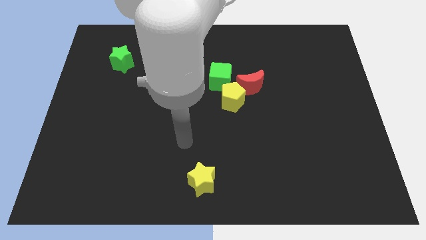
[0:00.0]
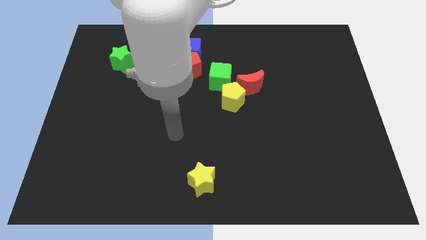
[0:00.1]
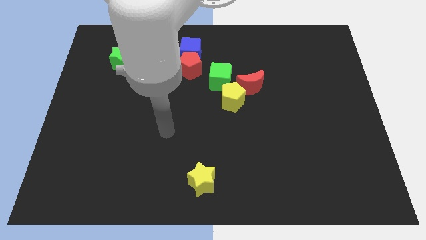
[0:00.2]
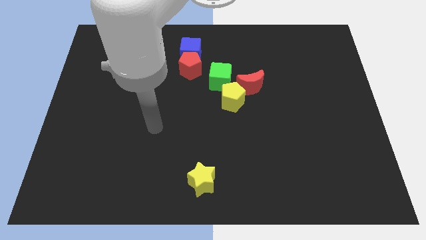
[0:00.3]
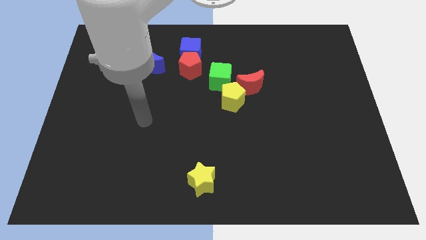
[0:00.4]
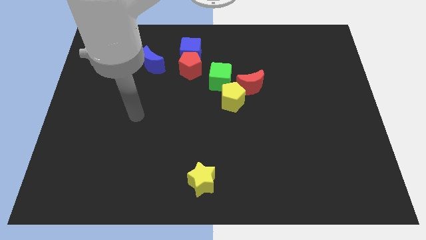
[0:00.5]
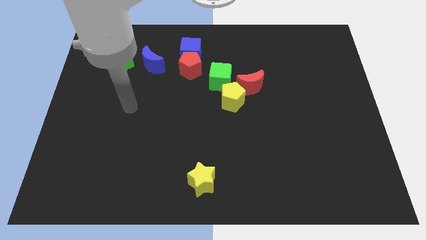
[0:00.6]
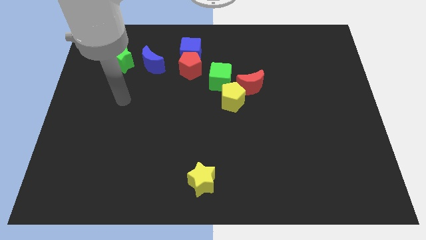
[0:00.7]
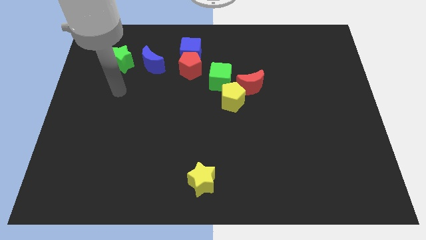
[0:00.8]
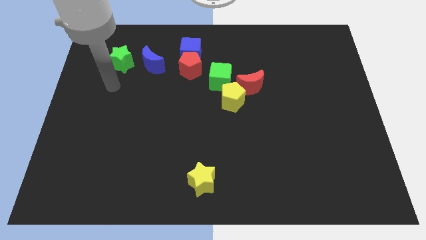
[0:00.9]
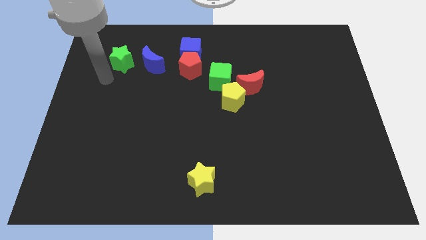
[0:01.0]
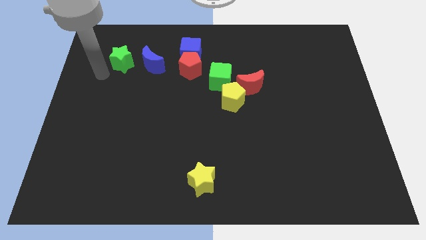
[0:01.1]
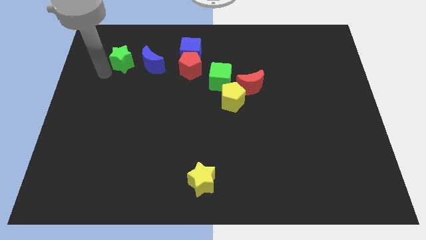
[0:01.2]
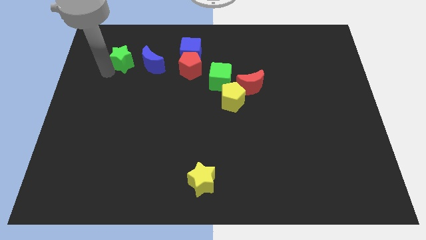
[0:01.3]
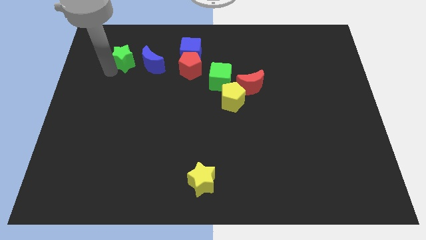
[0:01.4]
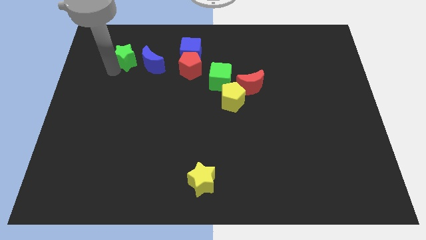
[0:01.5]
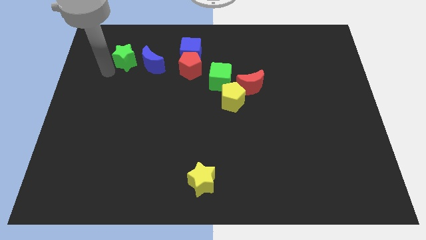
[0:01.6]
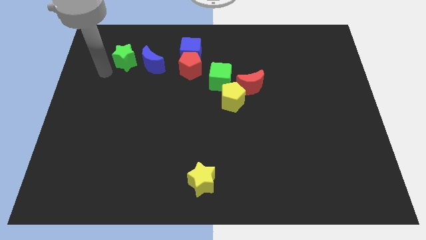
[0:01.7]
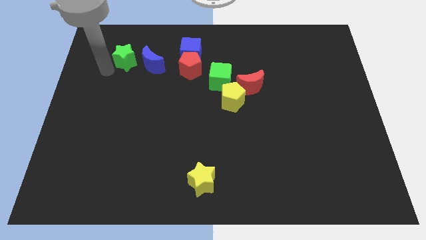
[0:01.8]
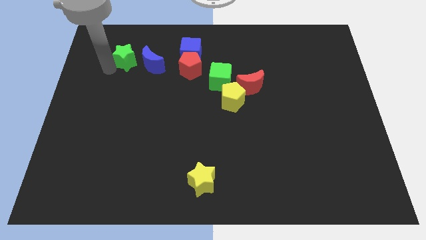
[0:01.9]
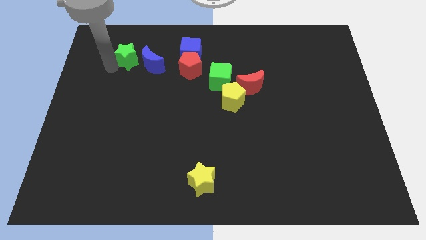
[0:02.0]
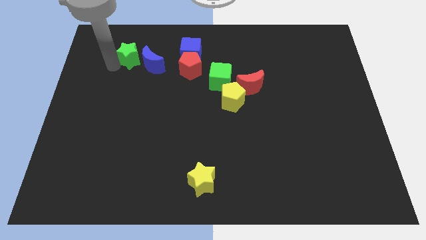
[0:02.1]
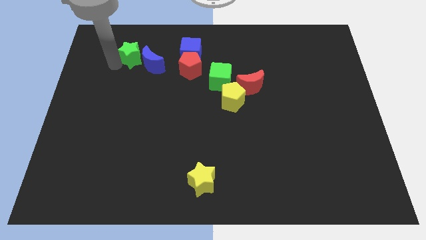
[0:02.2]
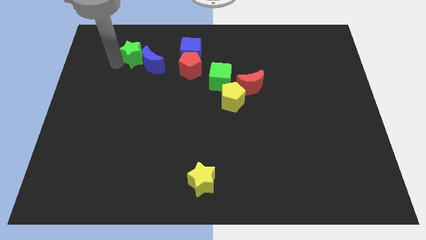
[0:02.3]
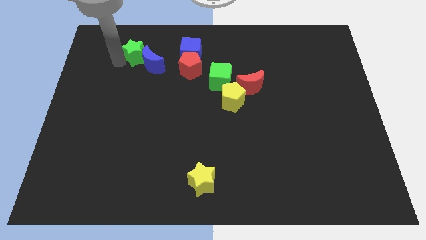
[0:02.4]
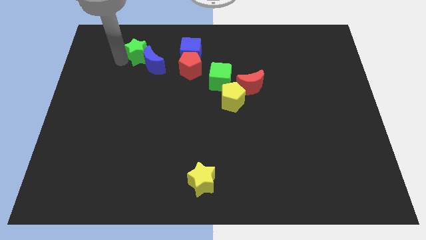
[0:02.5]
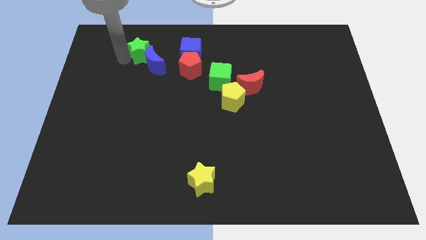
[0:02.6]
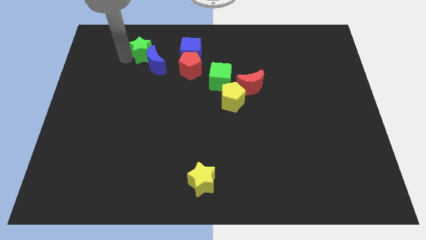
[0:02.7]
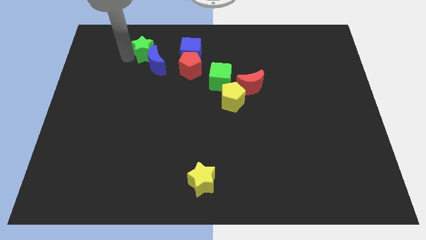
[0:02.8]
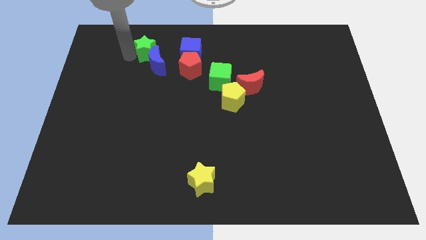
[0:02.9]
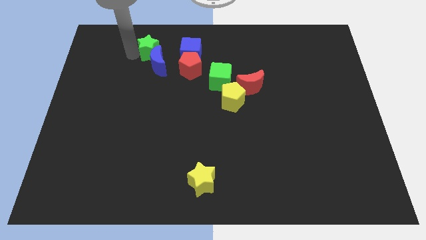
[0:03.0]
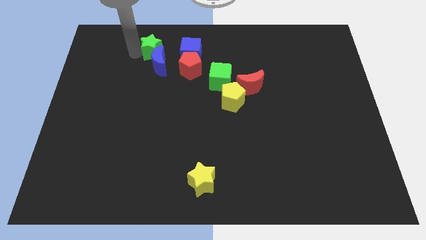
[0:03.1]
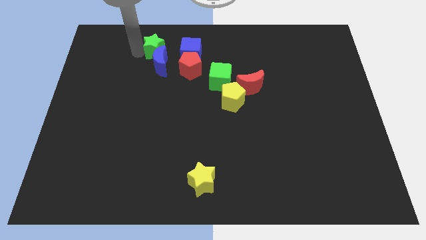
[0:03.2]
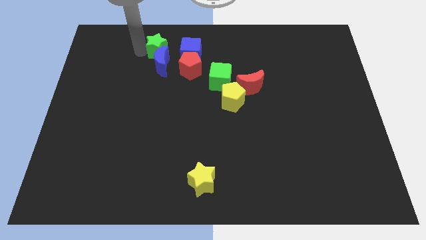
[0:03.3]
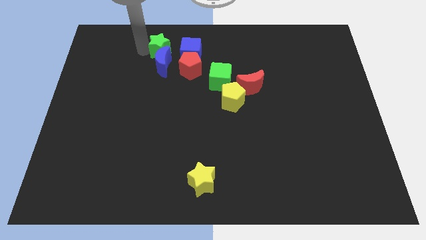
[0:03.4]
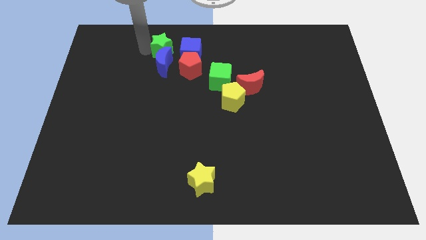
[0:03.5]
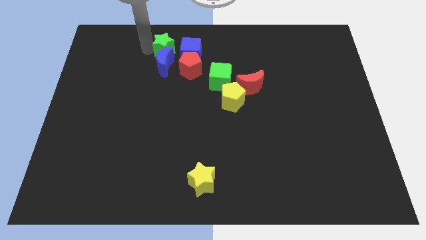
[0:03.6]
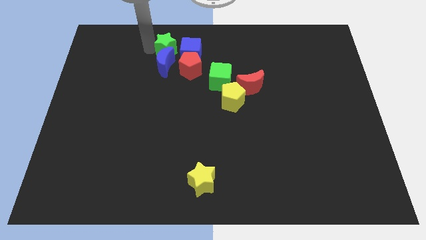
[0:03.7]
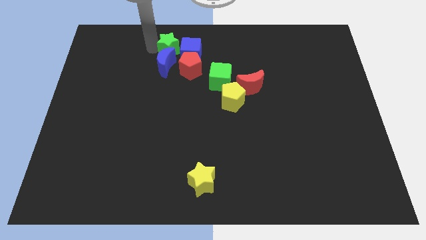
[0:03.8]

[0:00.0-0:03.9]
move the green star close to the blue cube

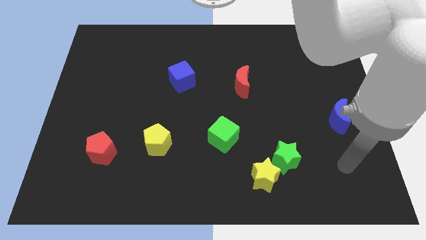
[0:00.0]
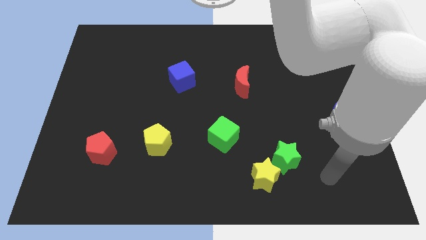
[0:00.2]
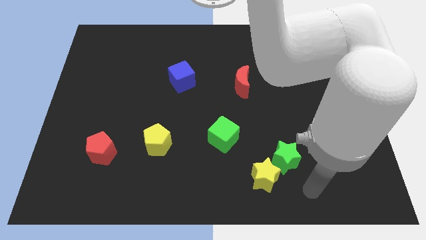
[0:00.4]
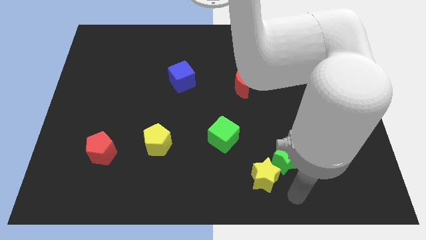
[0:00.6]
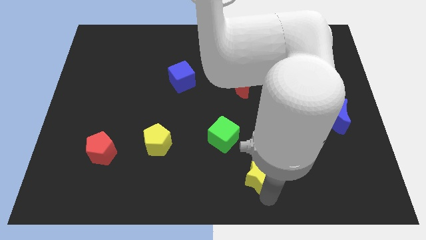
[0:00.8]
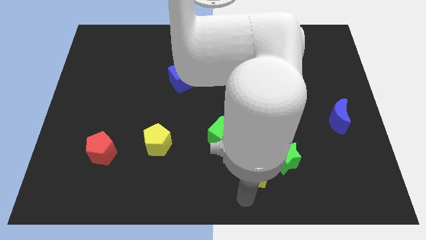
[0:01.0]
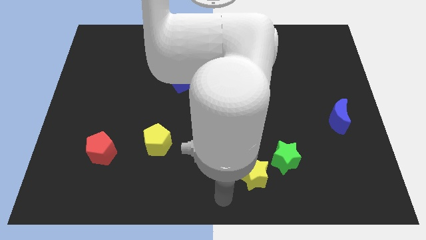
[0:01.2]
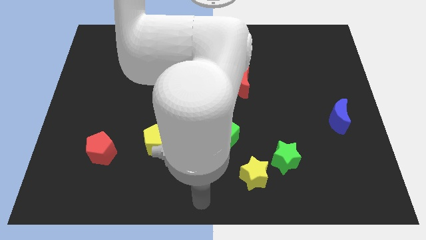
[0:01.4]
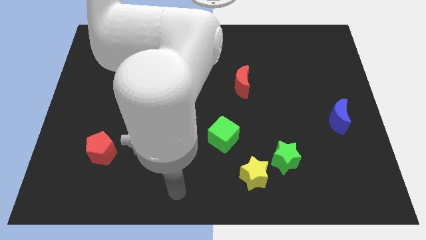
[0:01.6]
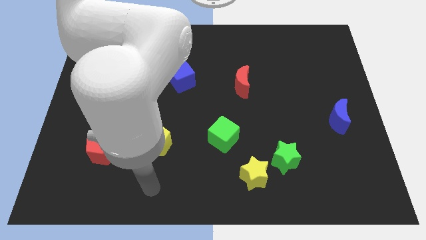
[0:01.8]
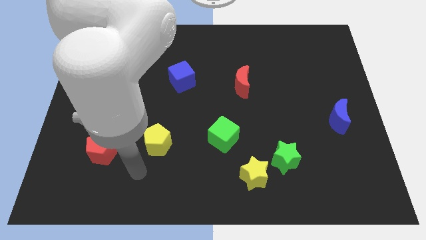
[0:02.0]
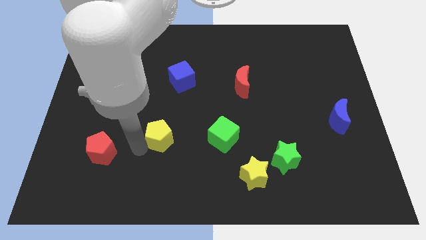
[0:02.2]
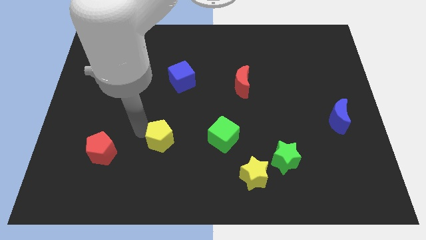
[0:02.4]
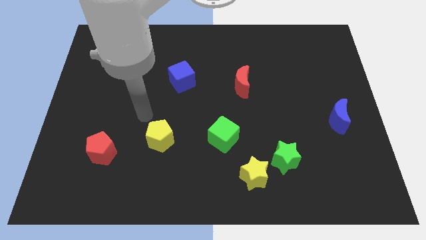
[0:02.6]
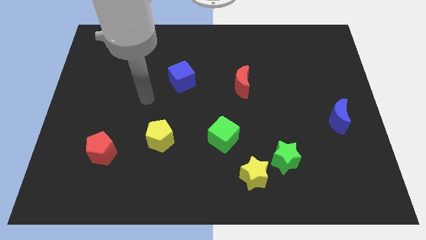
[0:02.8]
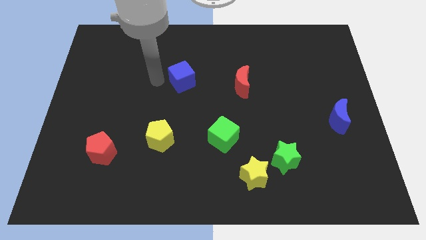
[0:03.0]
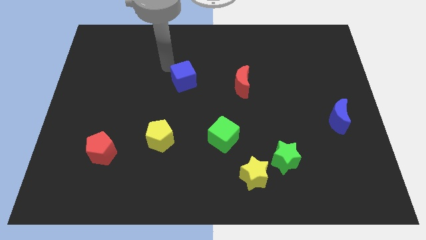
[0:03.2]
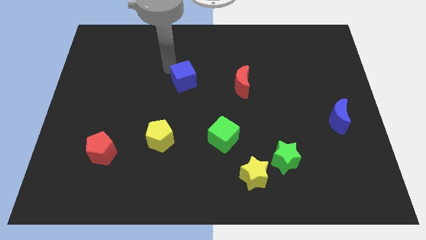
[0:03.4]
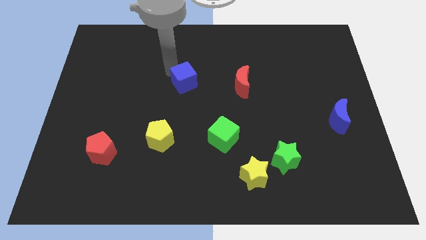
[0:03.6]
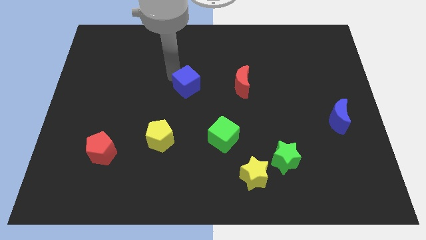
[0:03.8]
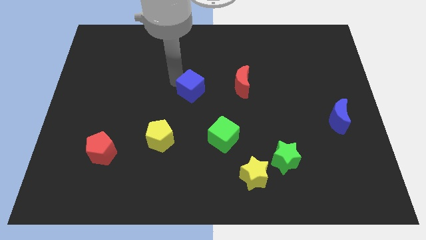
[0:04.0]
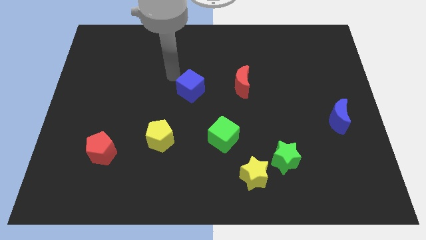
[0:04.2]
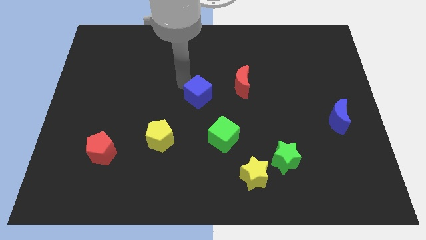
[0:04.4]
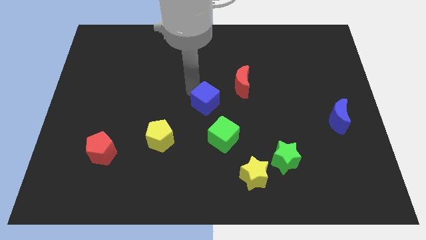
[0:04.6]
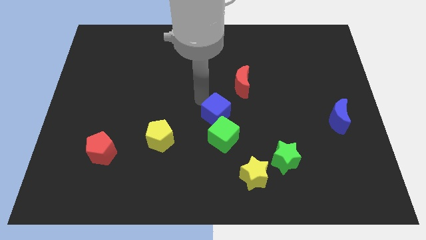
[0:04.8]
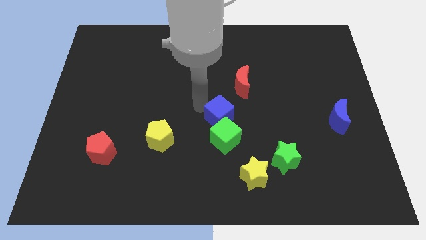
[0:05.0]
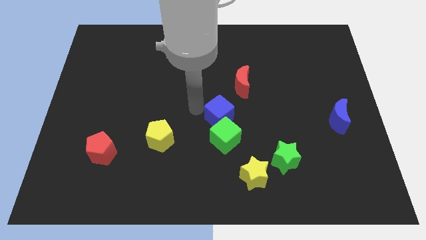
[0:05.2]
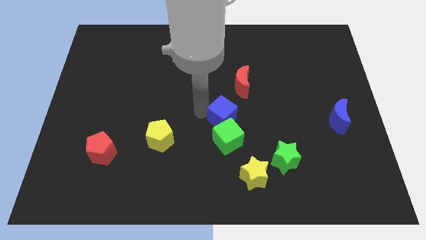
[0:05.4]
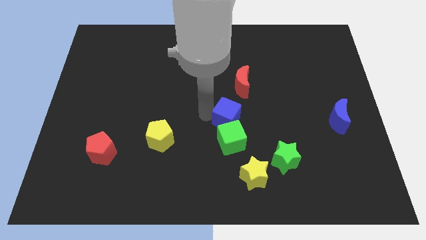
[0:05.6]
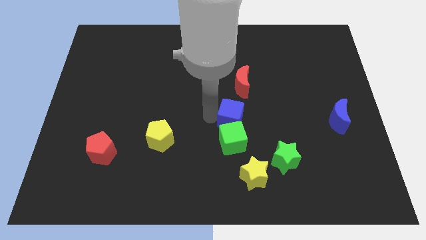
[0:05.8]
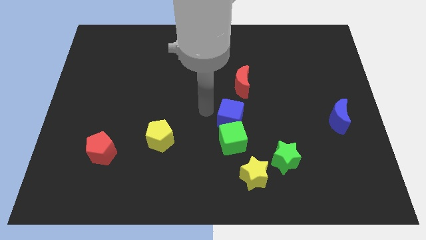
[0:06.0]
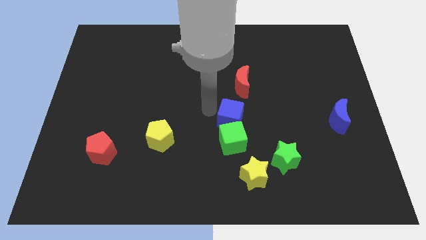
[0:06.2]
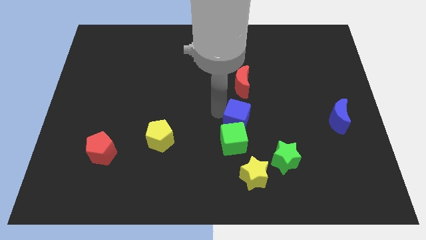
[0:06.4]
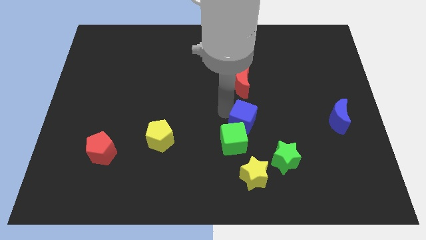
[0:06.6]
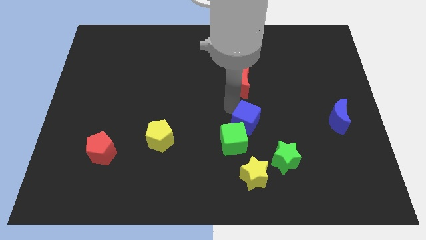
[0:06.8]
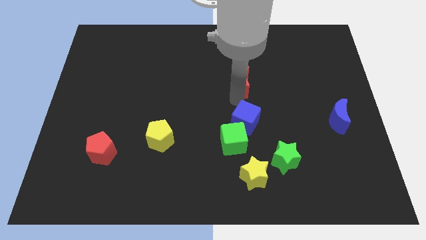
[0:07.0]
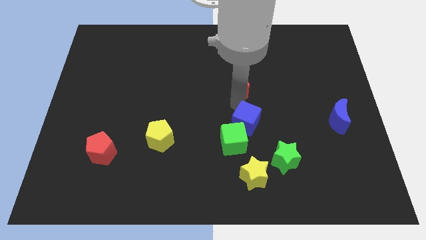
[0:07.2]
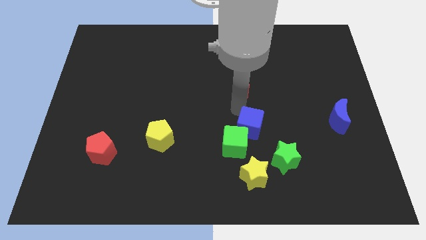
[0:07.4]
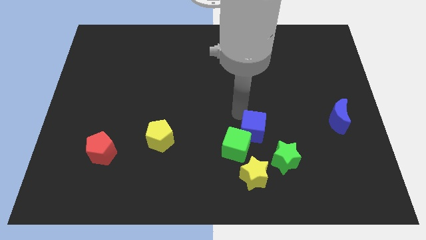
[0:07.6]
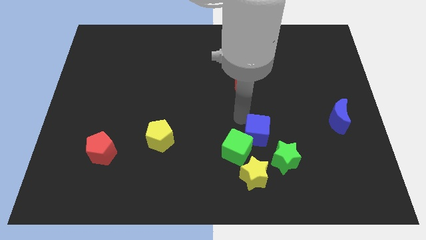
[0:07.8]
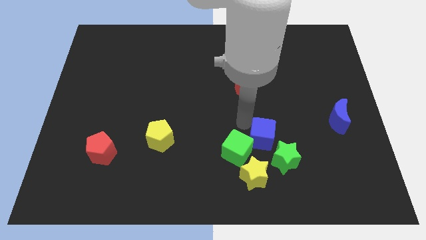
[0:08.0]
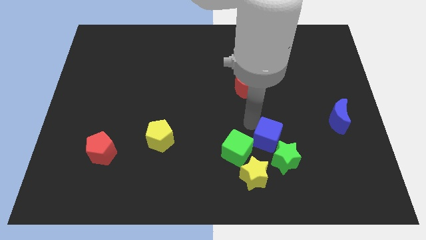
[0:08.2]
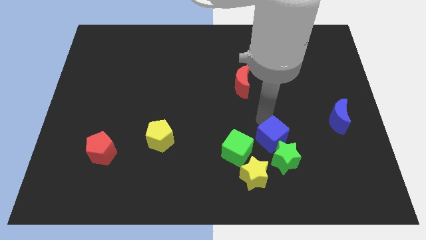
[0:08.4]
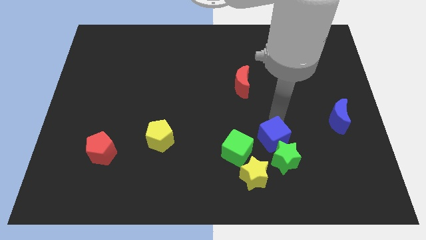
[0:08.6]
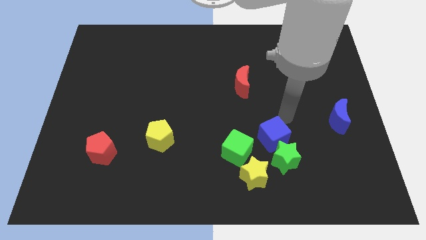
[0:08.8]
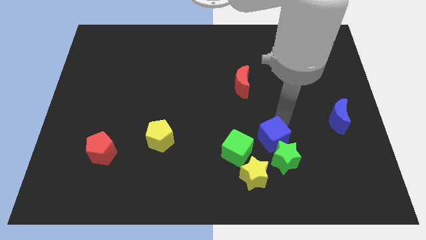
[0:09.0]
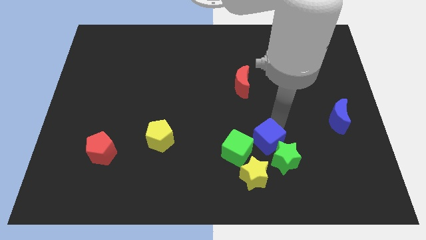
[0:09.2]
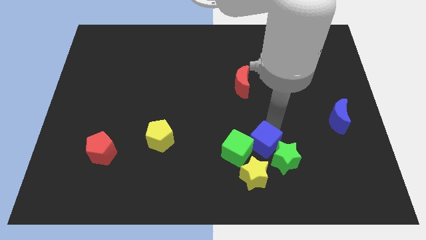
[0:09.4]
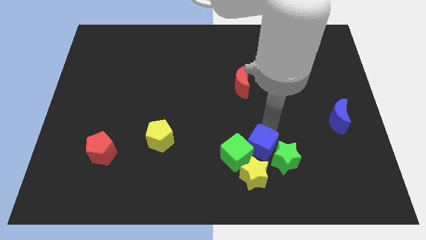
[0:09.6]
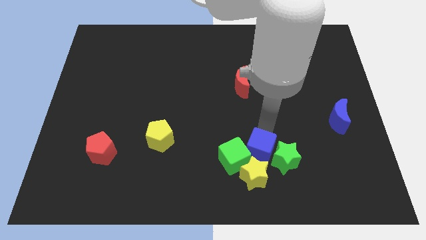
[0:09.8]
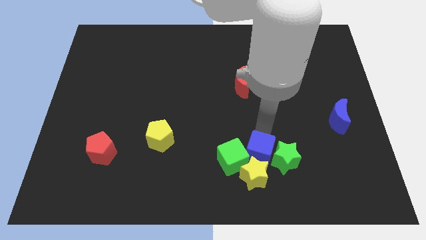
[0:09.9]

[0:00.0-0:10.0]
slide the blue cube to the yellow star
